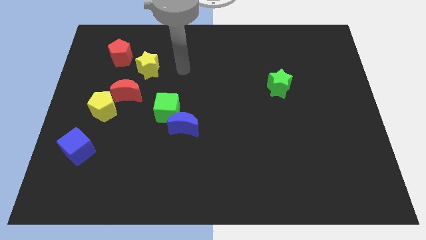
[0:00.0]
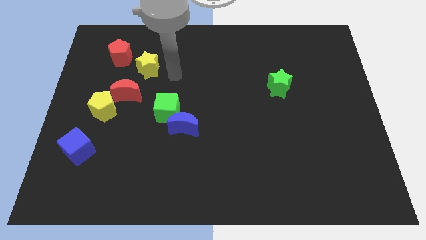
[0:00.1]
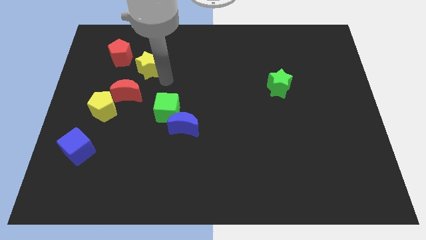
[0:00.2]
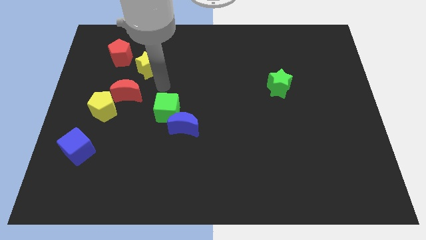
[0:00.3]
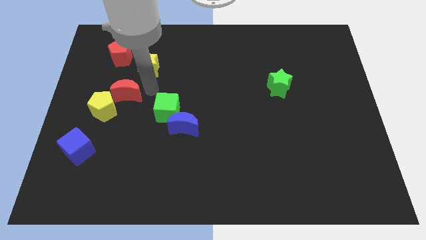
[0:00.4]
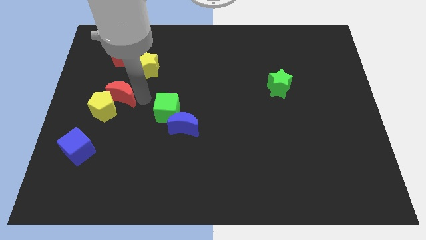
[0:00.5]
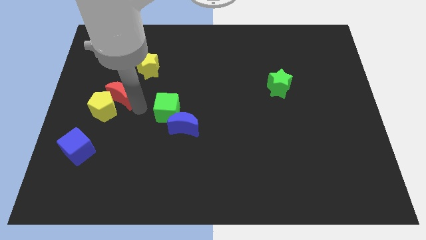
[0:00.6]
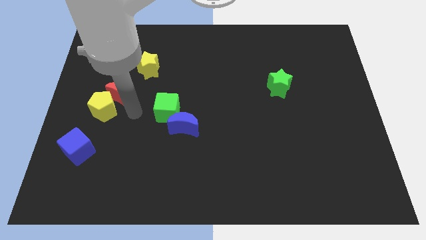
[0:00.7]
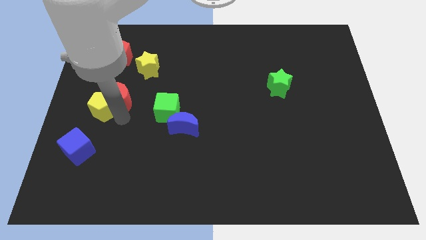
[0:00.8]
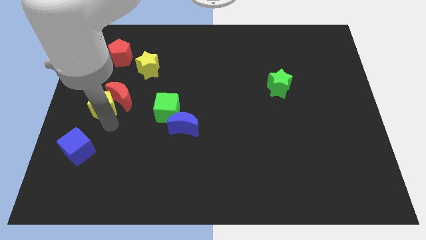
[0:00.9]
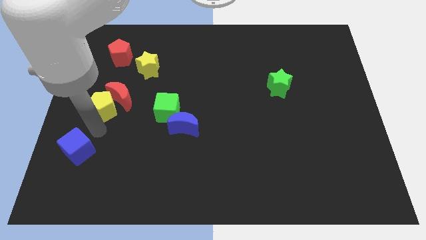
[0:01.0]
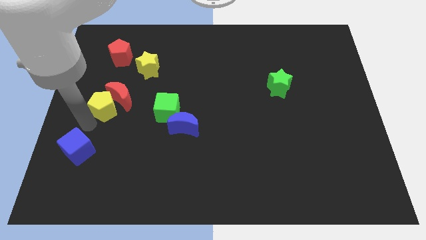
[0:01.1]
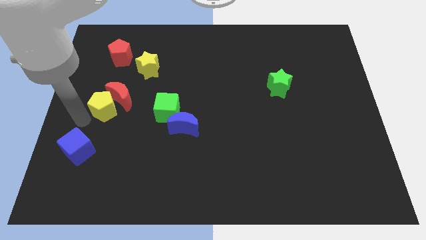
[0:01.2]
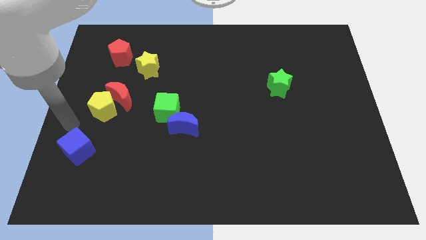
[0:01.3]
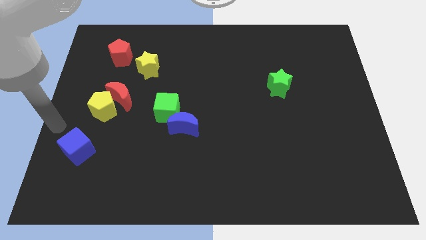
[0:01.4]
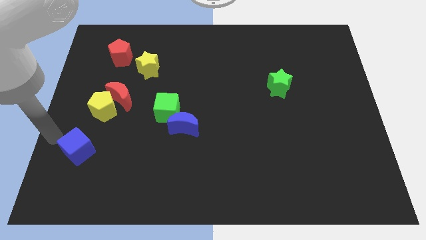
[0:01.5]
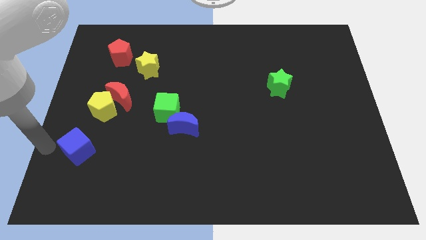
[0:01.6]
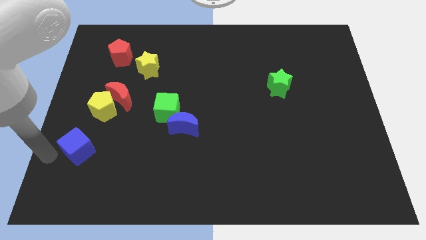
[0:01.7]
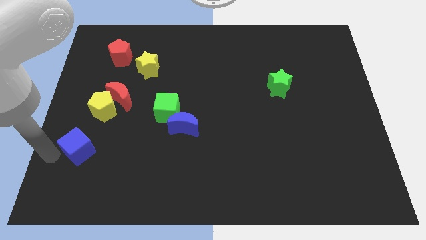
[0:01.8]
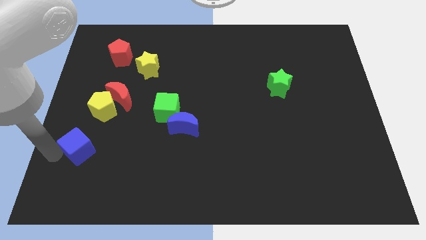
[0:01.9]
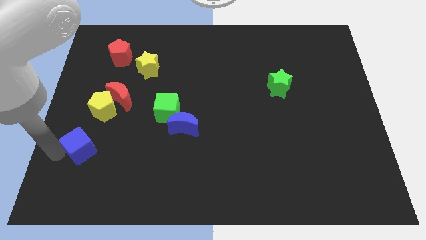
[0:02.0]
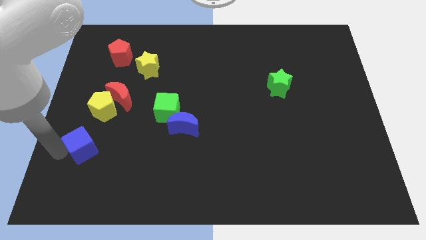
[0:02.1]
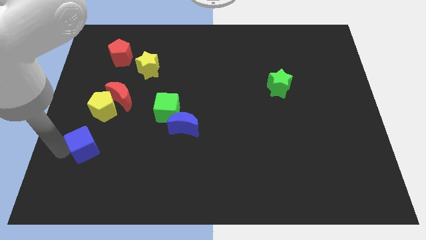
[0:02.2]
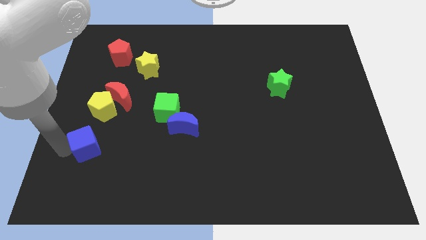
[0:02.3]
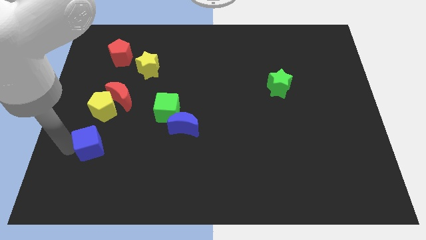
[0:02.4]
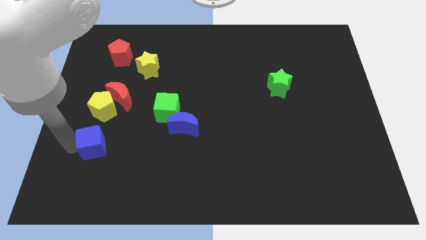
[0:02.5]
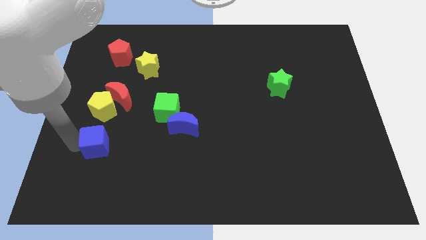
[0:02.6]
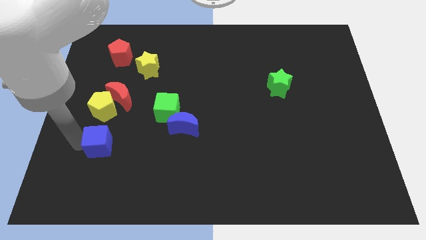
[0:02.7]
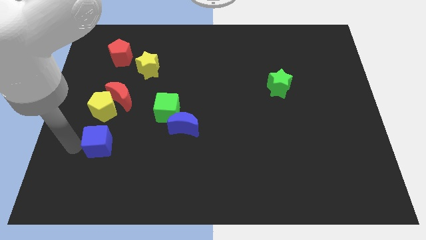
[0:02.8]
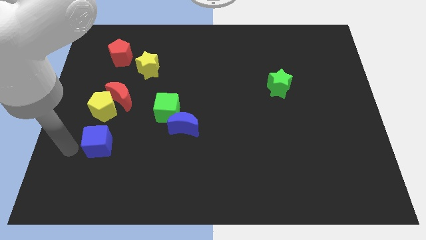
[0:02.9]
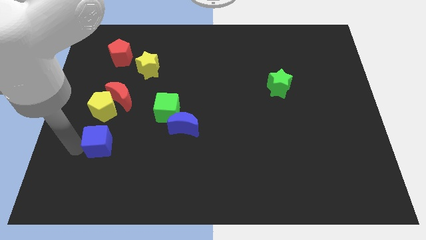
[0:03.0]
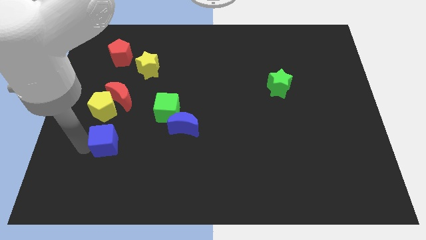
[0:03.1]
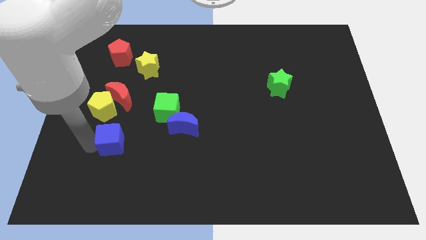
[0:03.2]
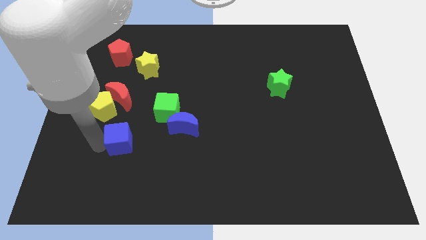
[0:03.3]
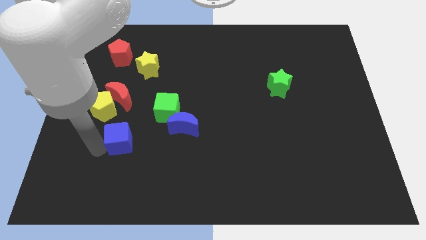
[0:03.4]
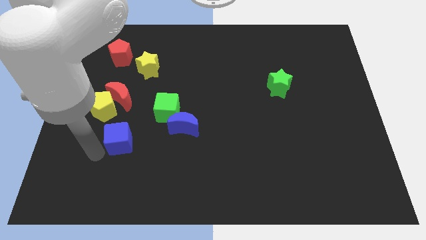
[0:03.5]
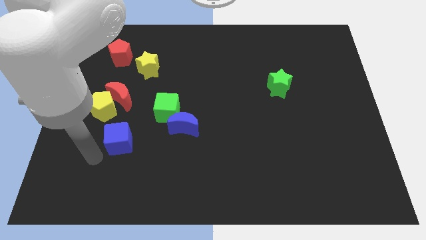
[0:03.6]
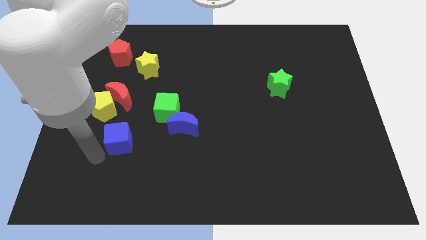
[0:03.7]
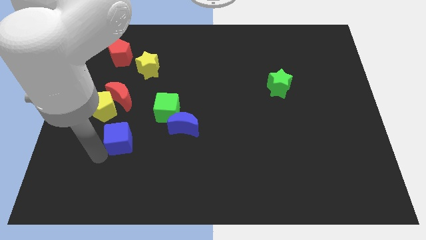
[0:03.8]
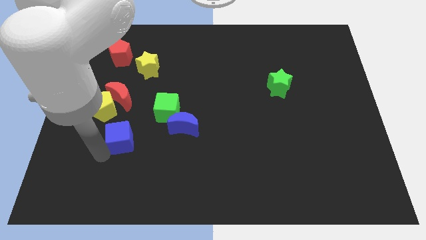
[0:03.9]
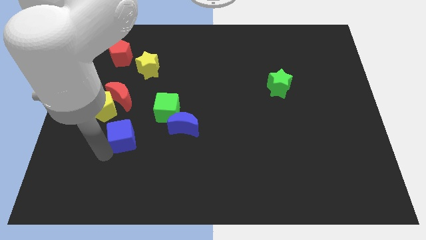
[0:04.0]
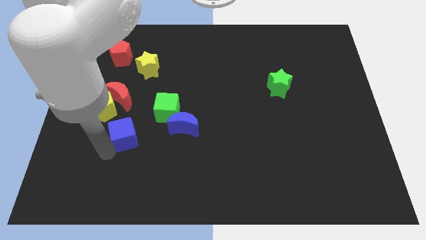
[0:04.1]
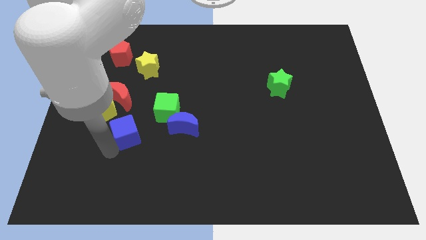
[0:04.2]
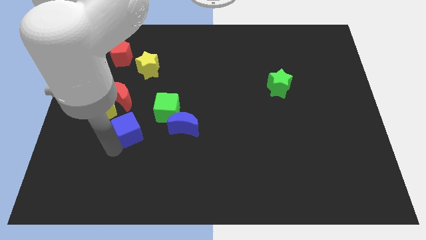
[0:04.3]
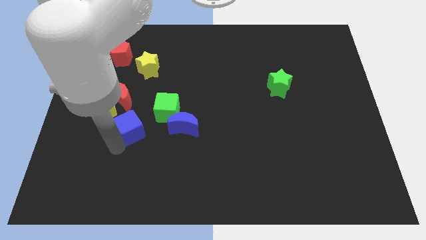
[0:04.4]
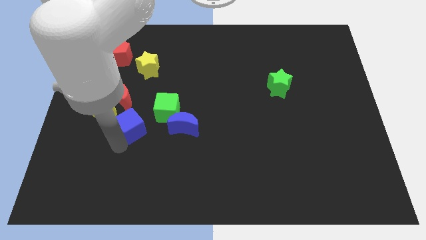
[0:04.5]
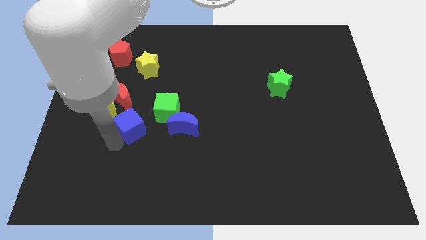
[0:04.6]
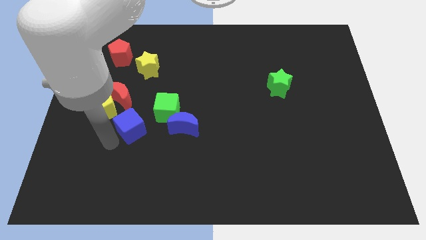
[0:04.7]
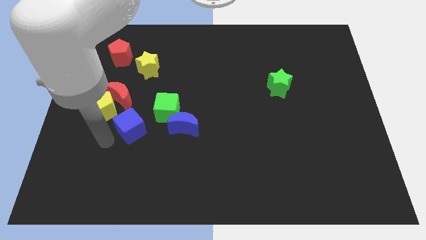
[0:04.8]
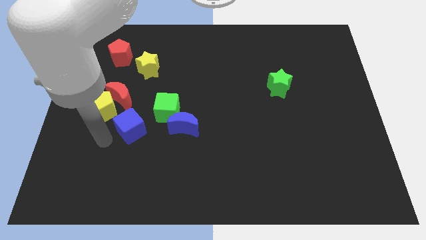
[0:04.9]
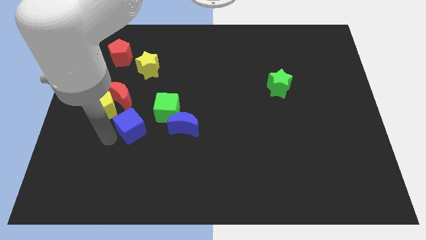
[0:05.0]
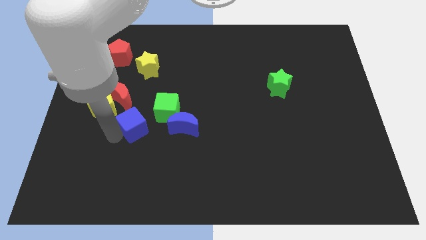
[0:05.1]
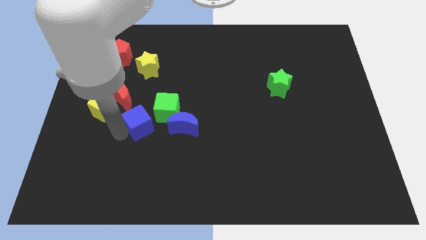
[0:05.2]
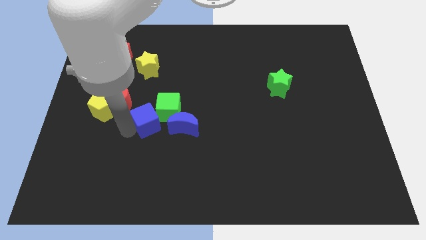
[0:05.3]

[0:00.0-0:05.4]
push the blue cube to the green cube

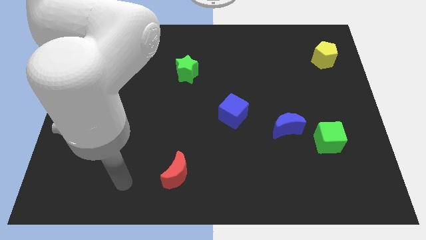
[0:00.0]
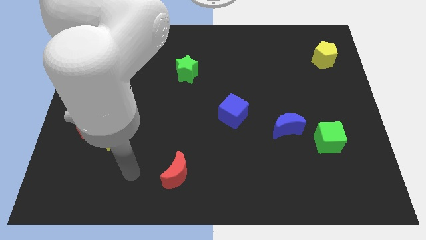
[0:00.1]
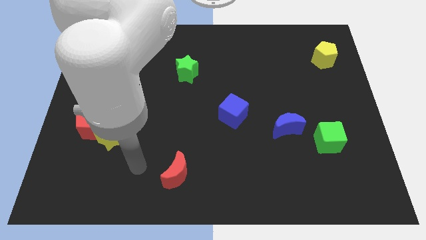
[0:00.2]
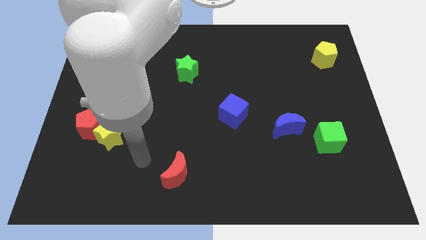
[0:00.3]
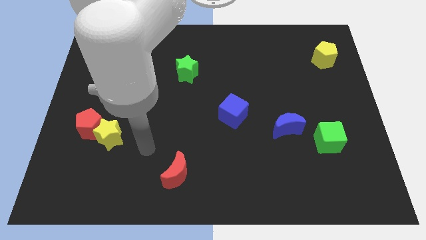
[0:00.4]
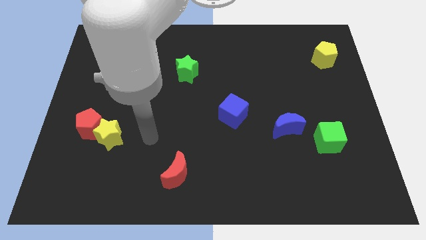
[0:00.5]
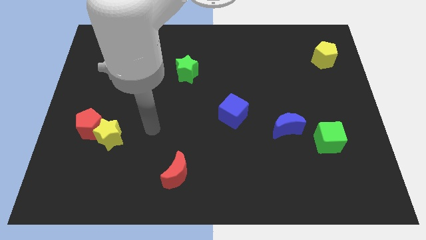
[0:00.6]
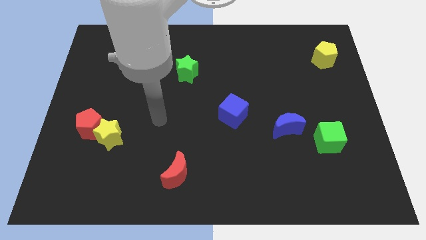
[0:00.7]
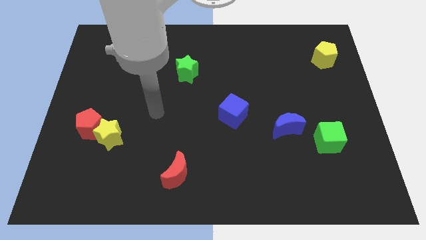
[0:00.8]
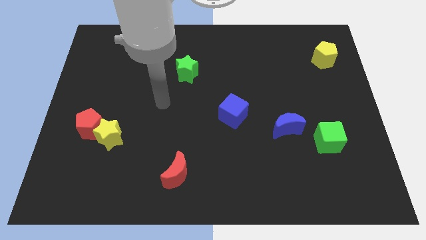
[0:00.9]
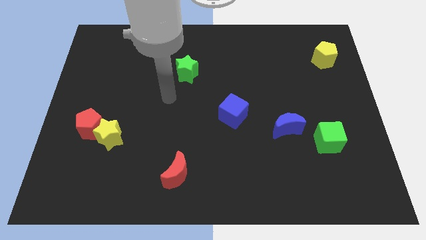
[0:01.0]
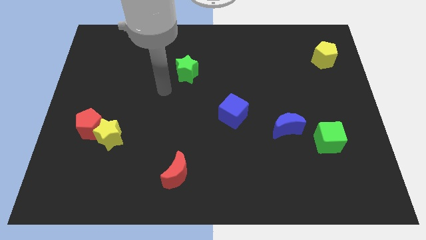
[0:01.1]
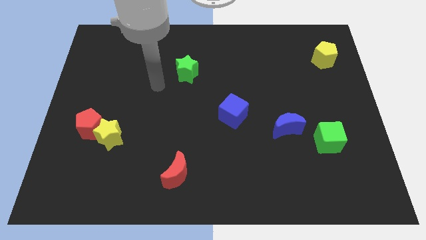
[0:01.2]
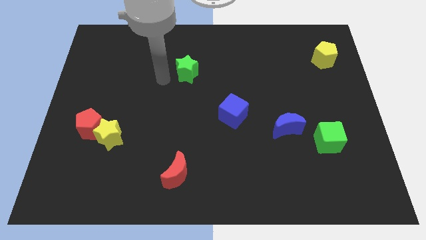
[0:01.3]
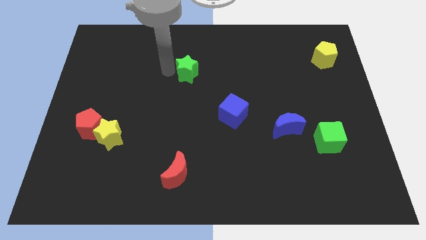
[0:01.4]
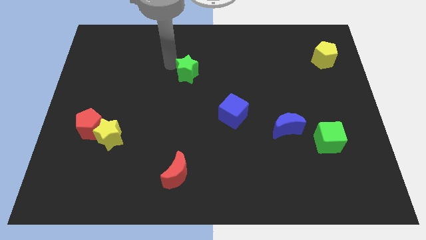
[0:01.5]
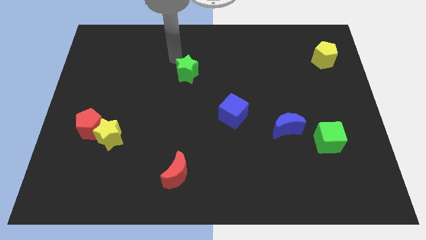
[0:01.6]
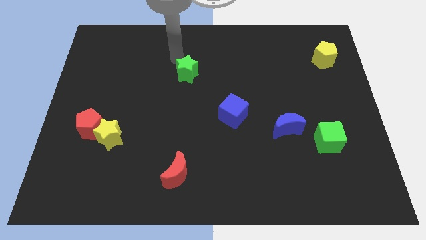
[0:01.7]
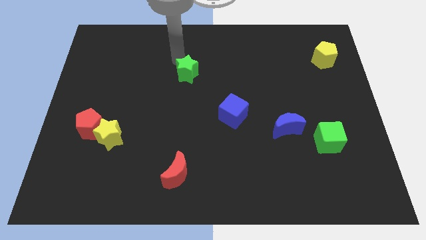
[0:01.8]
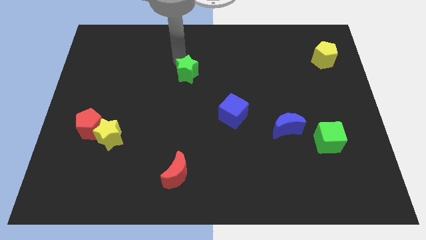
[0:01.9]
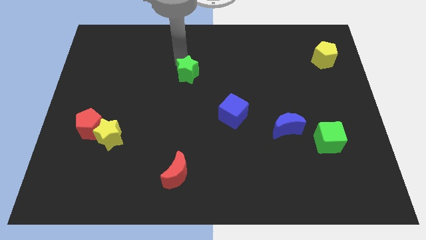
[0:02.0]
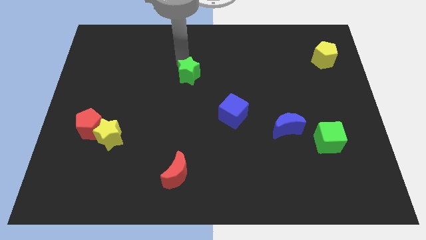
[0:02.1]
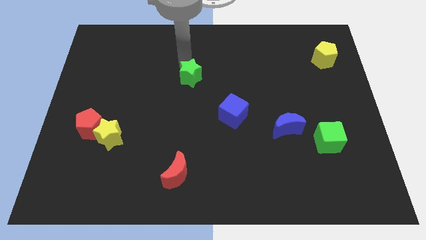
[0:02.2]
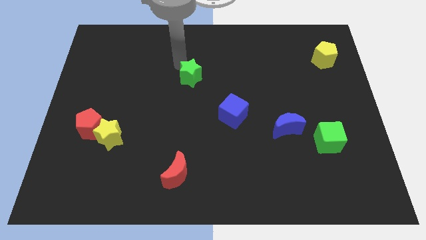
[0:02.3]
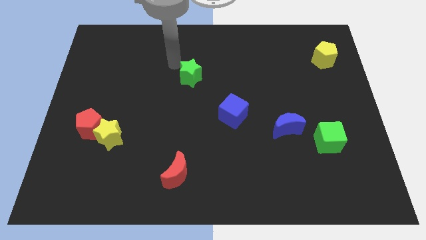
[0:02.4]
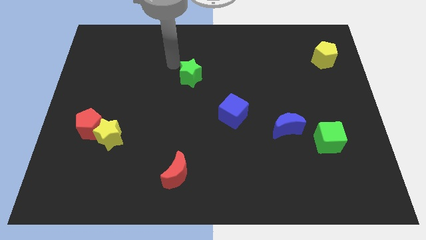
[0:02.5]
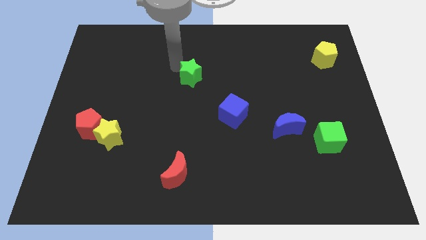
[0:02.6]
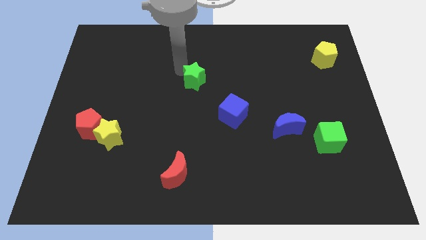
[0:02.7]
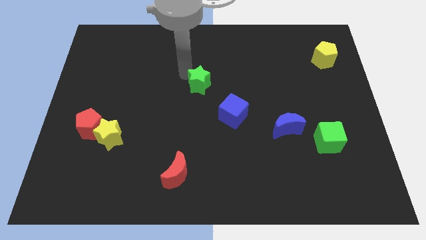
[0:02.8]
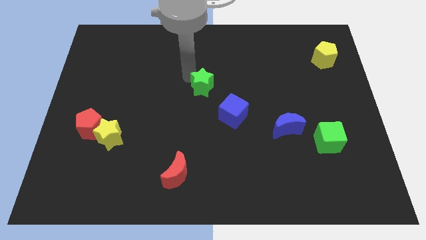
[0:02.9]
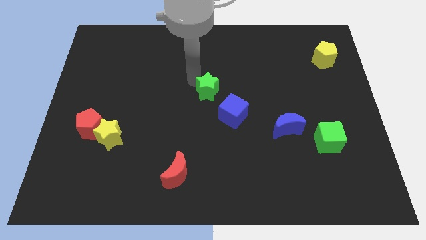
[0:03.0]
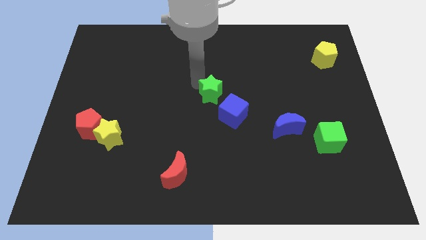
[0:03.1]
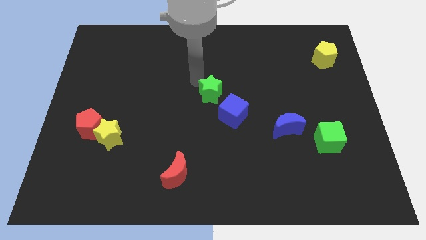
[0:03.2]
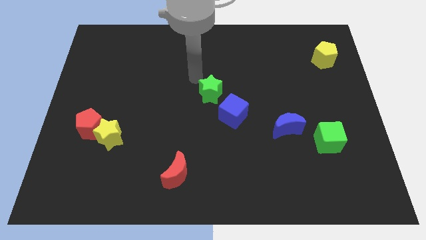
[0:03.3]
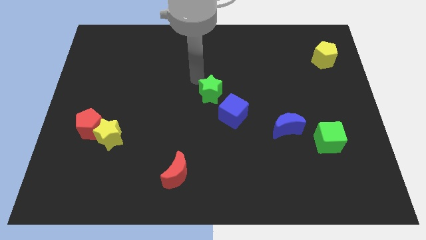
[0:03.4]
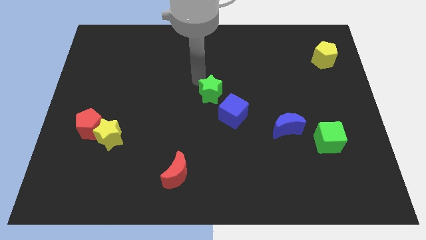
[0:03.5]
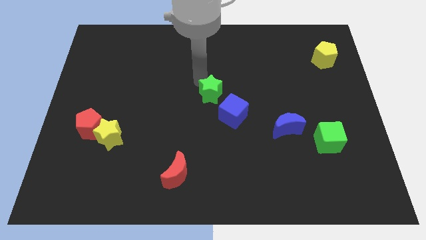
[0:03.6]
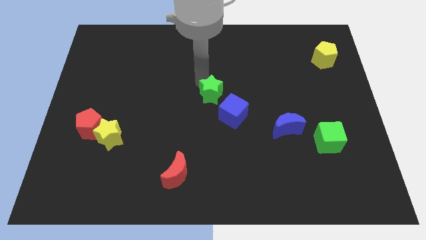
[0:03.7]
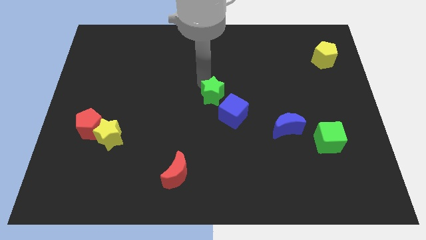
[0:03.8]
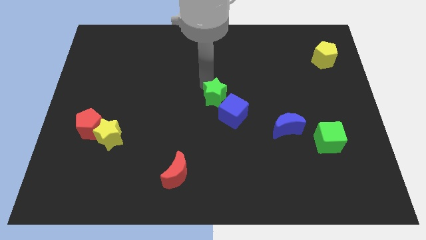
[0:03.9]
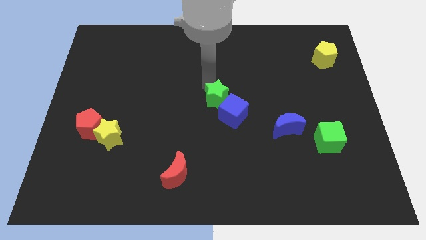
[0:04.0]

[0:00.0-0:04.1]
move the green star close to the blue cube
